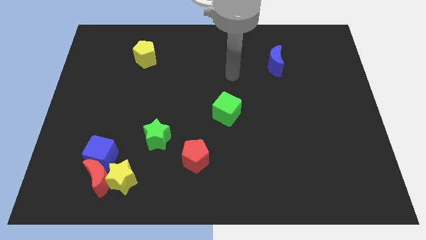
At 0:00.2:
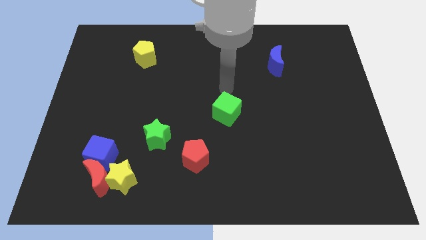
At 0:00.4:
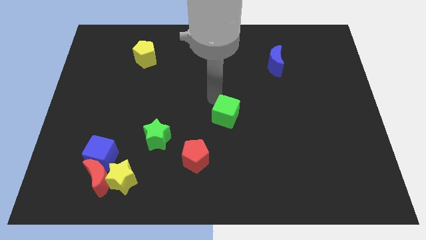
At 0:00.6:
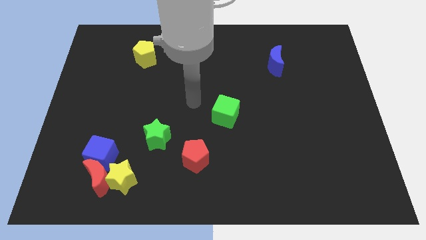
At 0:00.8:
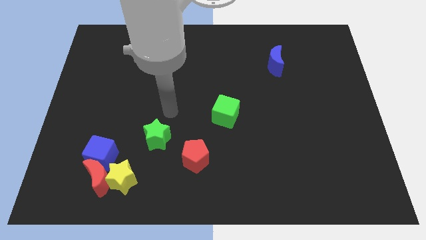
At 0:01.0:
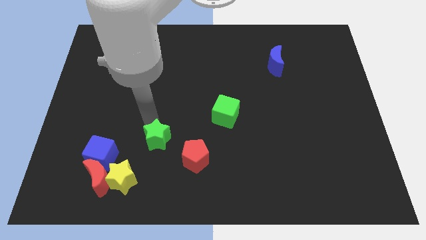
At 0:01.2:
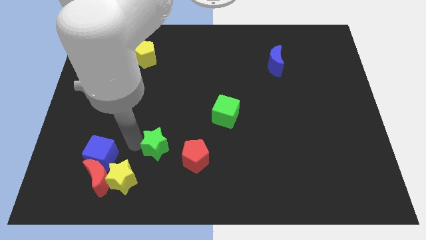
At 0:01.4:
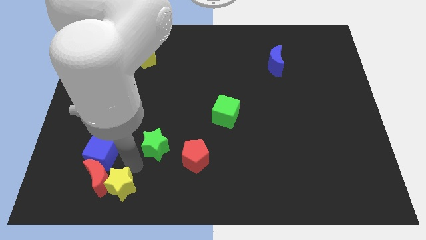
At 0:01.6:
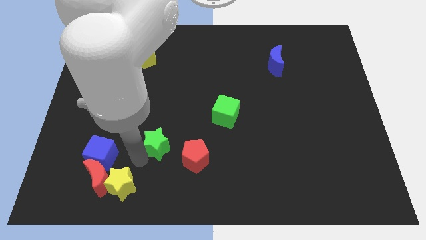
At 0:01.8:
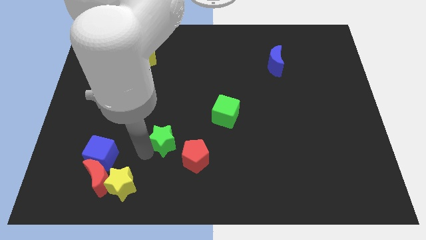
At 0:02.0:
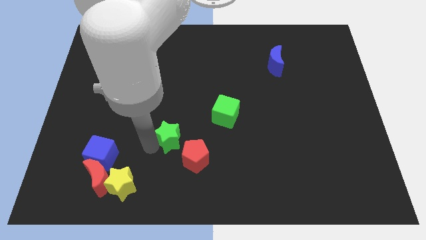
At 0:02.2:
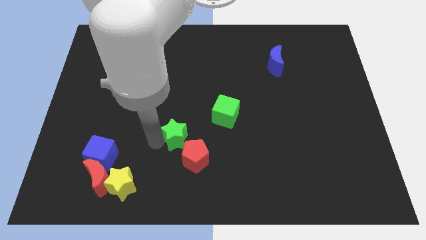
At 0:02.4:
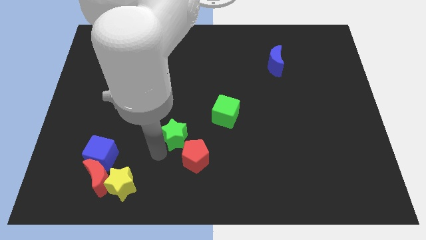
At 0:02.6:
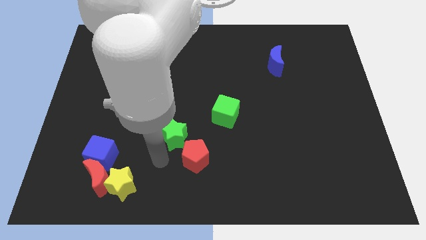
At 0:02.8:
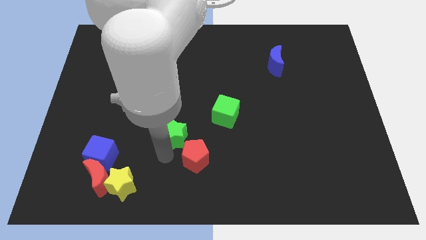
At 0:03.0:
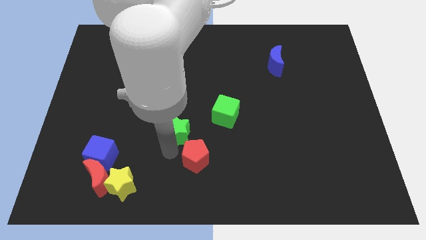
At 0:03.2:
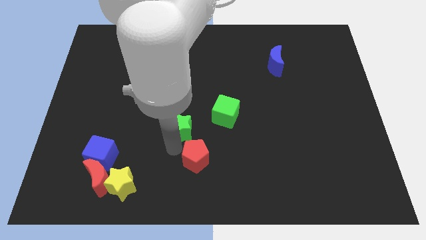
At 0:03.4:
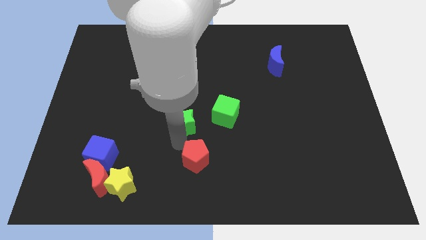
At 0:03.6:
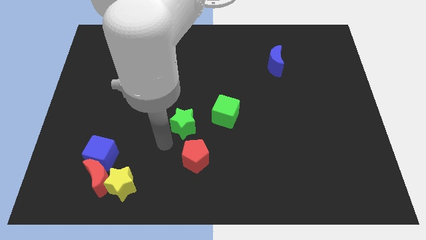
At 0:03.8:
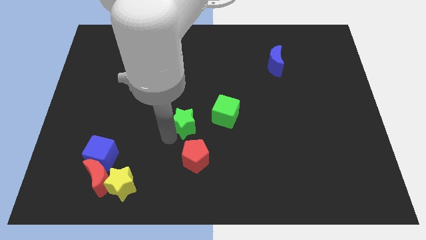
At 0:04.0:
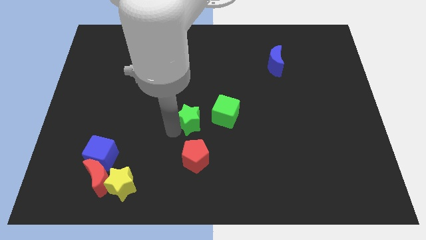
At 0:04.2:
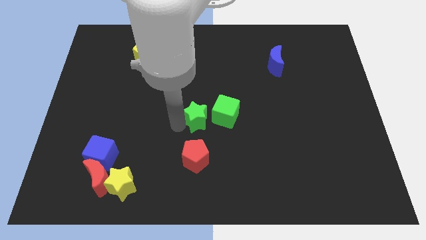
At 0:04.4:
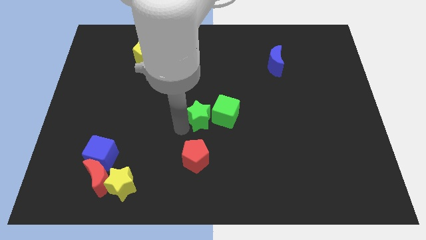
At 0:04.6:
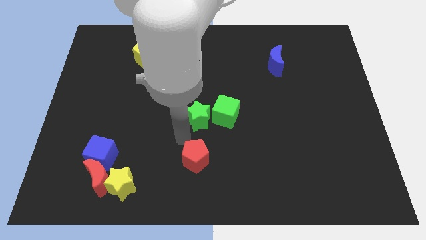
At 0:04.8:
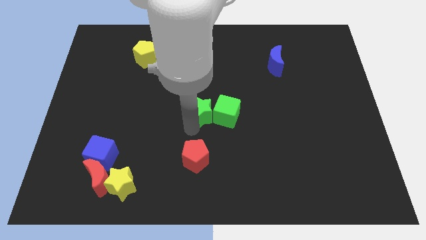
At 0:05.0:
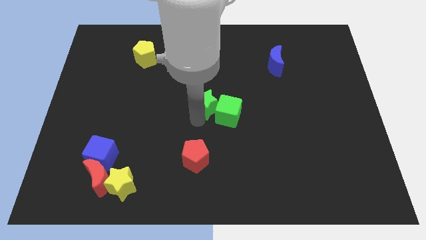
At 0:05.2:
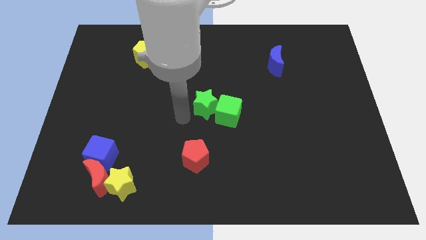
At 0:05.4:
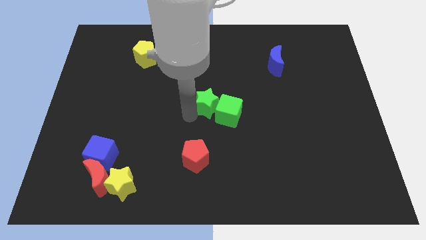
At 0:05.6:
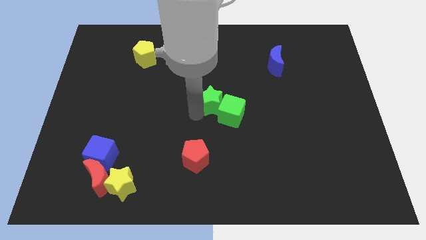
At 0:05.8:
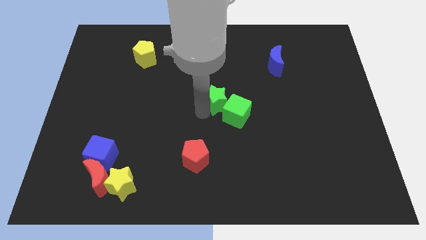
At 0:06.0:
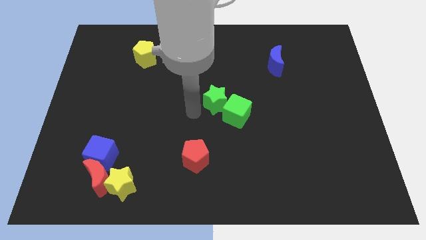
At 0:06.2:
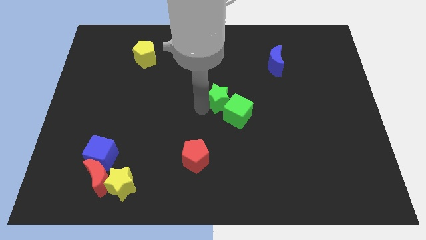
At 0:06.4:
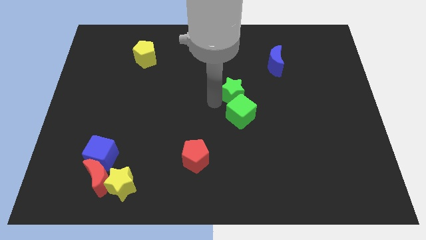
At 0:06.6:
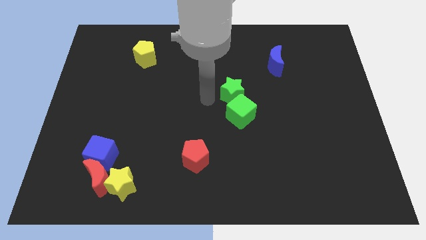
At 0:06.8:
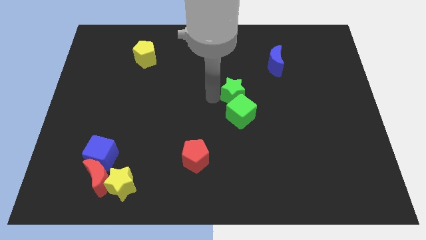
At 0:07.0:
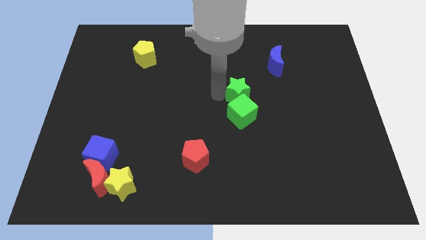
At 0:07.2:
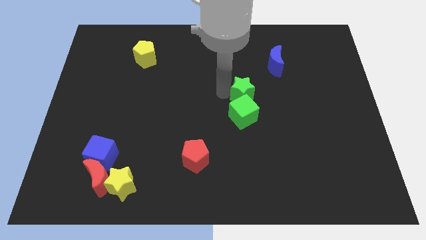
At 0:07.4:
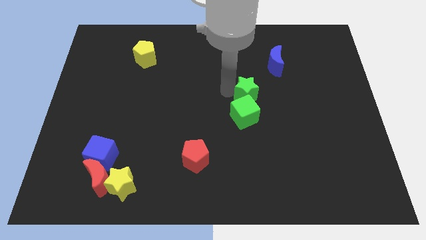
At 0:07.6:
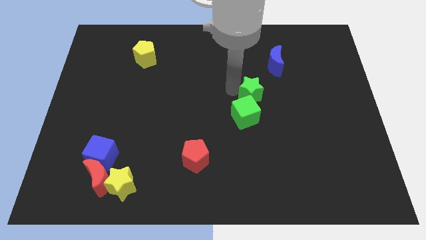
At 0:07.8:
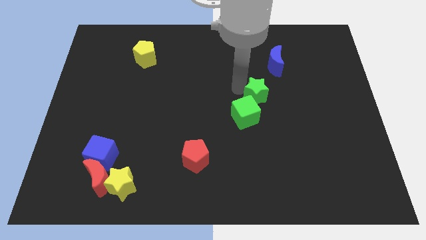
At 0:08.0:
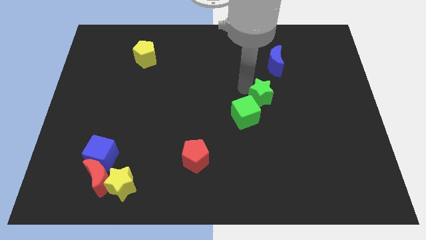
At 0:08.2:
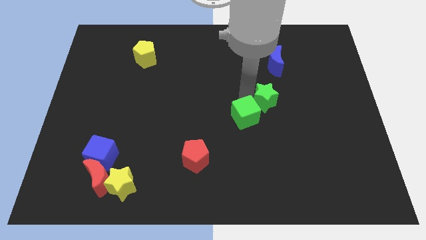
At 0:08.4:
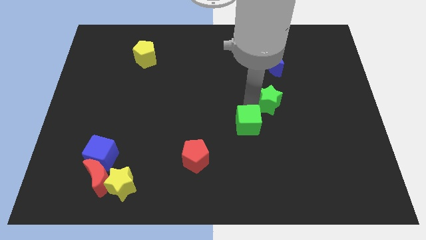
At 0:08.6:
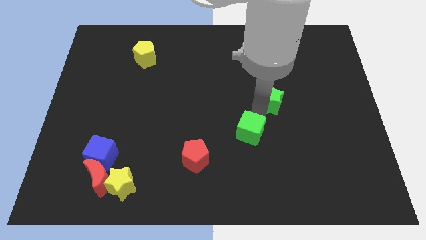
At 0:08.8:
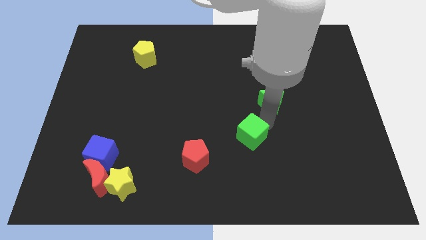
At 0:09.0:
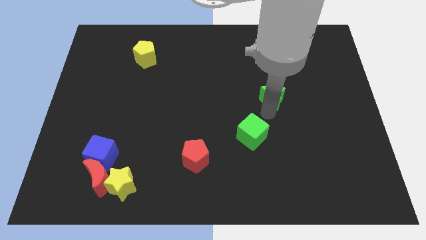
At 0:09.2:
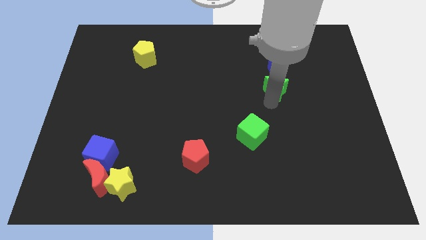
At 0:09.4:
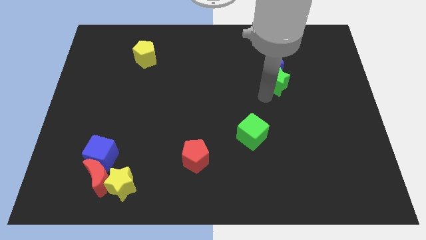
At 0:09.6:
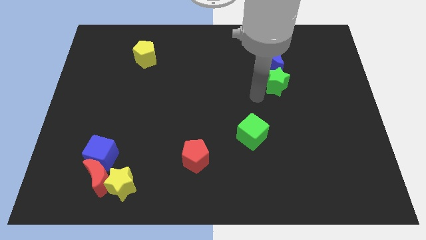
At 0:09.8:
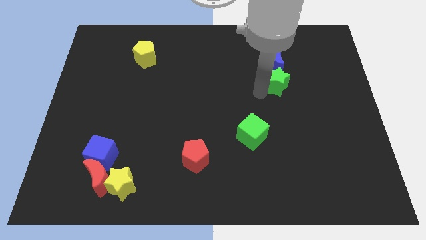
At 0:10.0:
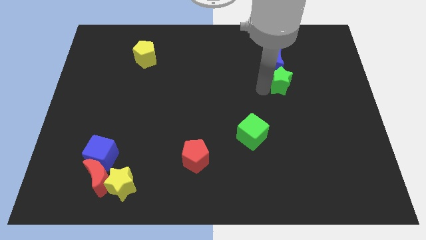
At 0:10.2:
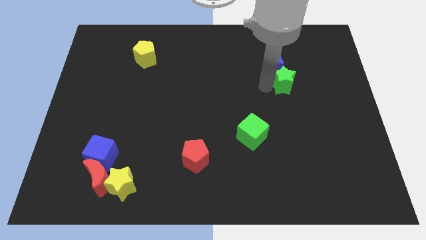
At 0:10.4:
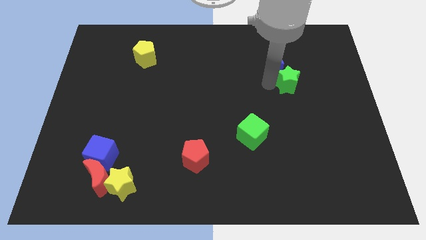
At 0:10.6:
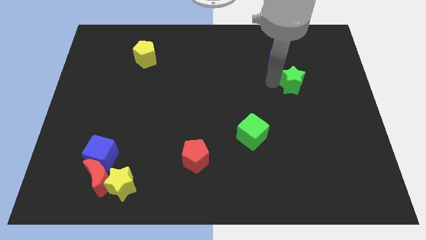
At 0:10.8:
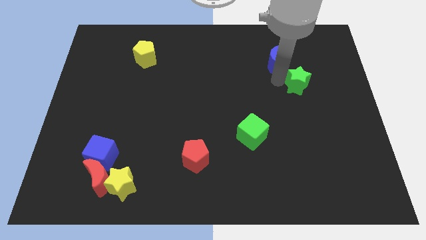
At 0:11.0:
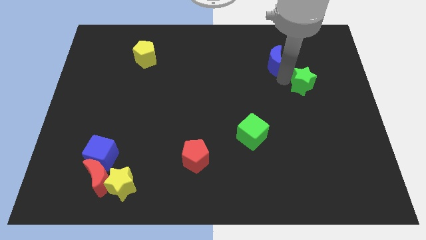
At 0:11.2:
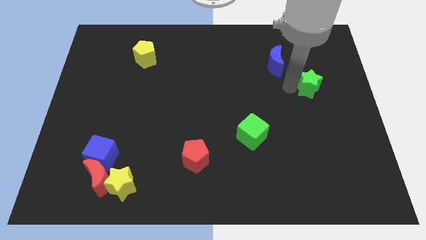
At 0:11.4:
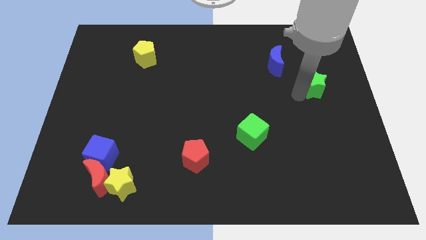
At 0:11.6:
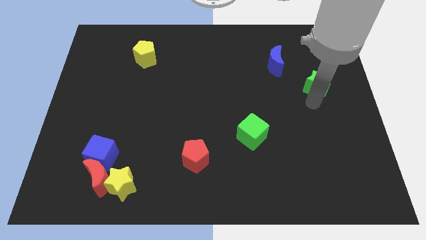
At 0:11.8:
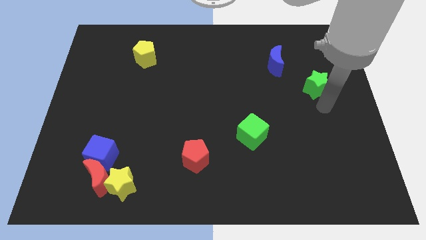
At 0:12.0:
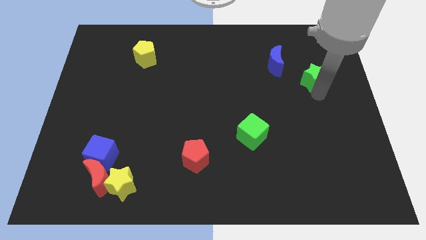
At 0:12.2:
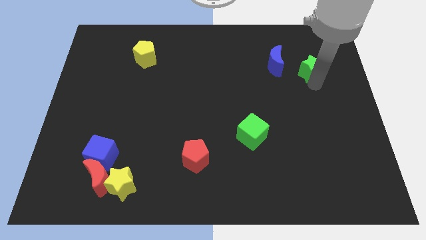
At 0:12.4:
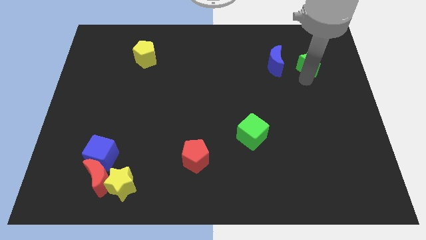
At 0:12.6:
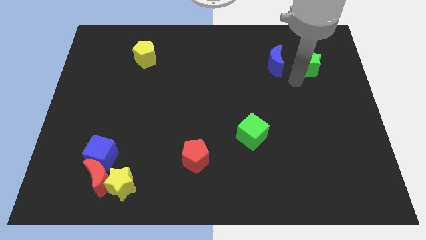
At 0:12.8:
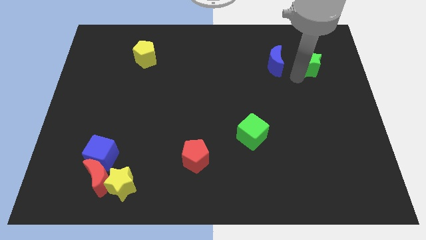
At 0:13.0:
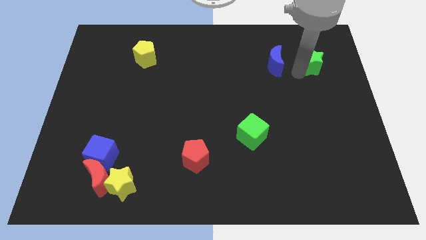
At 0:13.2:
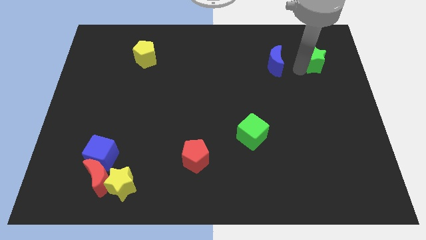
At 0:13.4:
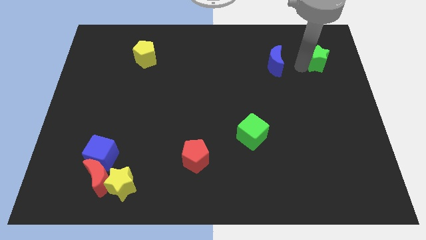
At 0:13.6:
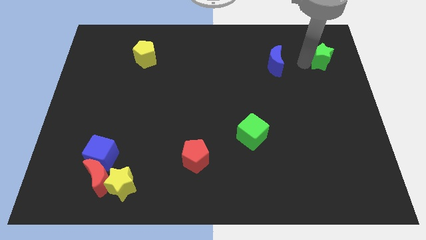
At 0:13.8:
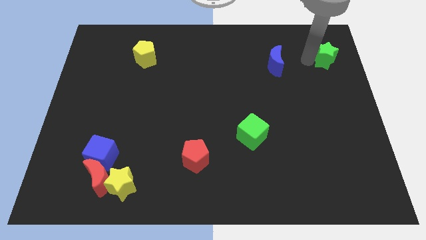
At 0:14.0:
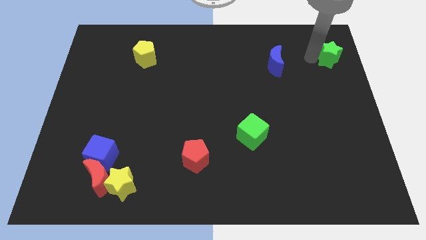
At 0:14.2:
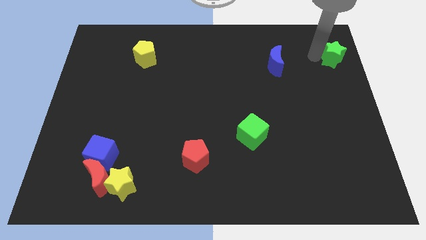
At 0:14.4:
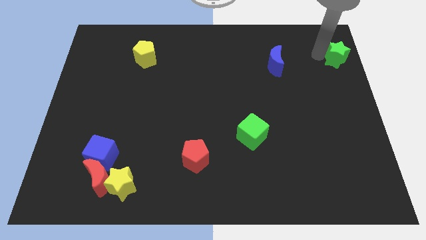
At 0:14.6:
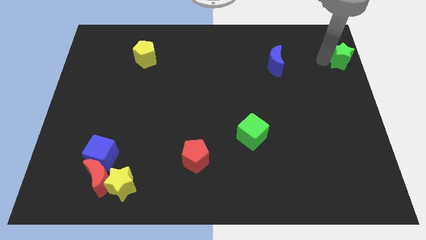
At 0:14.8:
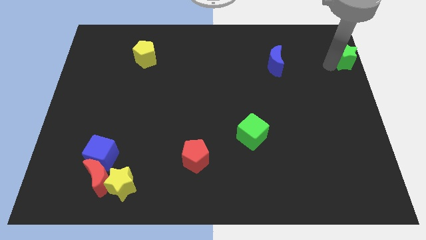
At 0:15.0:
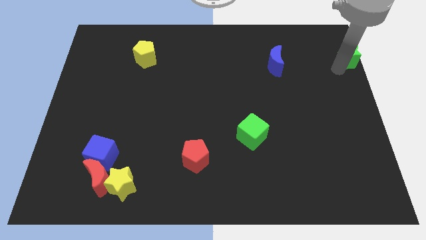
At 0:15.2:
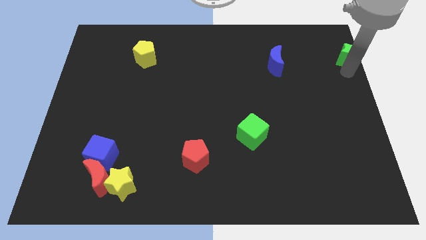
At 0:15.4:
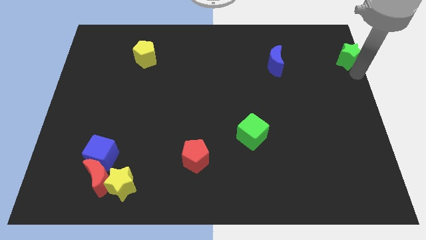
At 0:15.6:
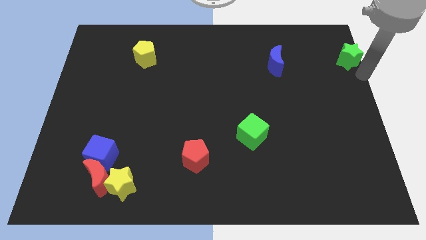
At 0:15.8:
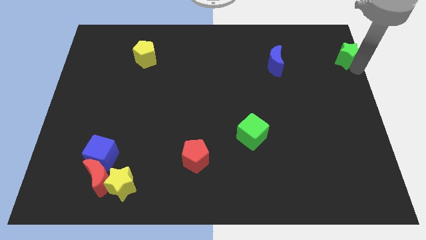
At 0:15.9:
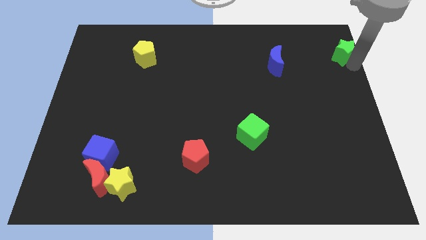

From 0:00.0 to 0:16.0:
put the green star to the upper right corner
